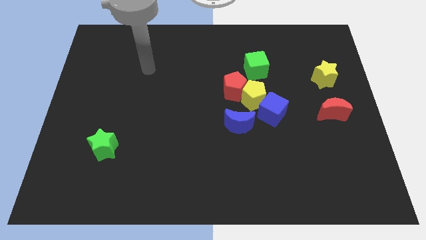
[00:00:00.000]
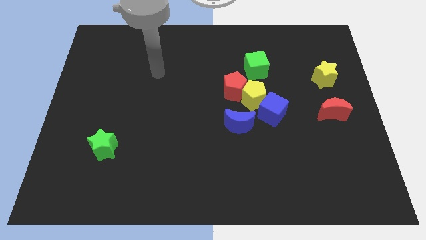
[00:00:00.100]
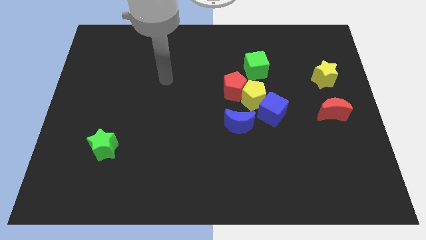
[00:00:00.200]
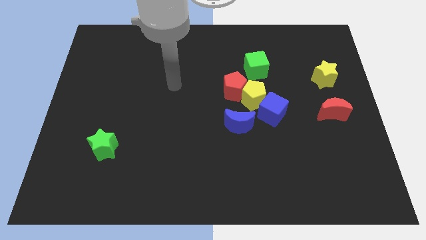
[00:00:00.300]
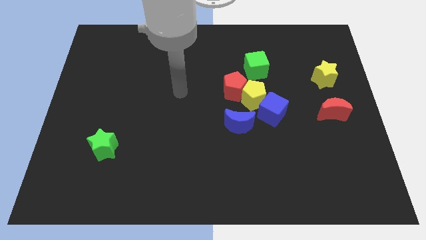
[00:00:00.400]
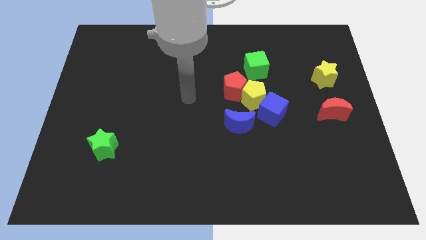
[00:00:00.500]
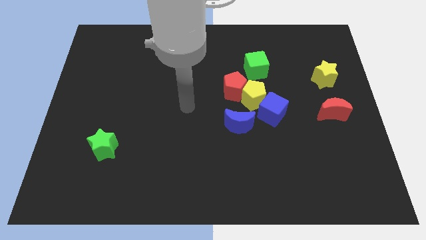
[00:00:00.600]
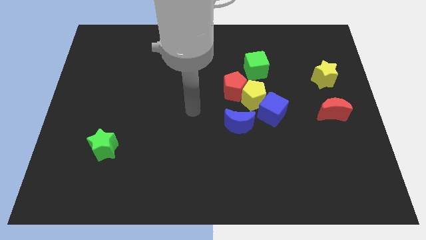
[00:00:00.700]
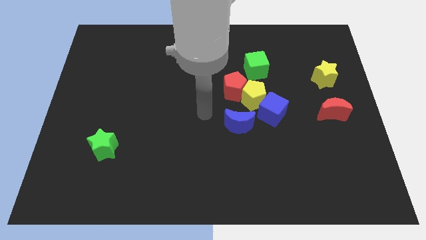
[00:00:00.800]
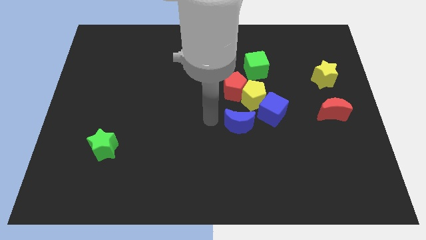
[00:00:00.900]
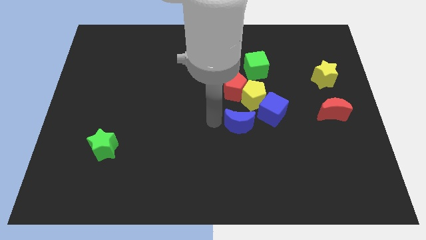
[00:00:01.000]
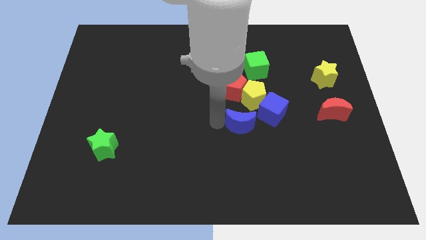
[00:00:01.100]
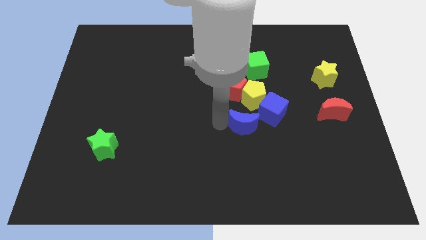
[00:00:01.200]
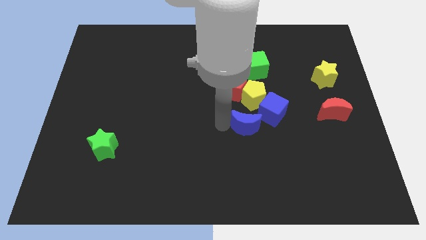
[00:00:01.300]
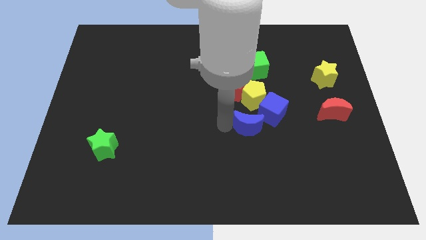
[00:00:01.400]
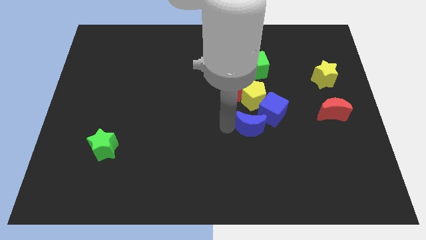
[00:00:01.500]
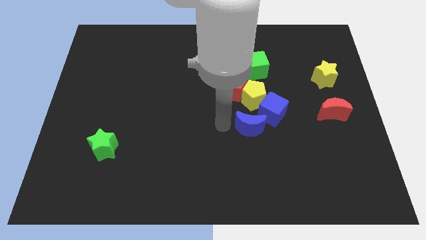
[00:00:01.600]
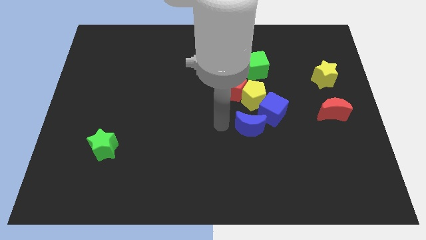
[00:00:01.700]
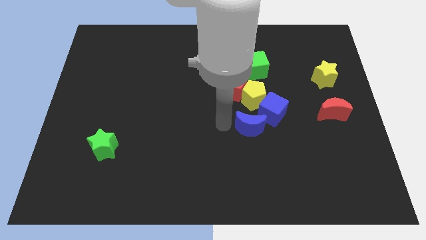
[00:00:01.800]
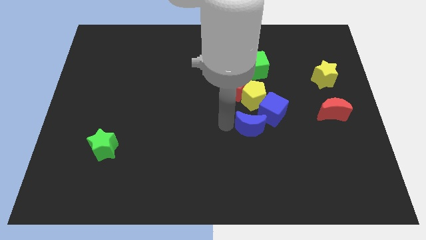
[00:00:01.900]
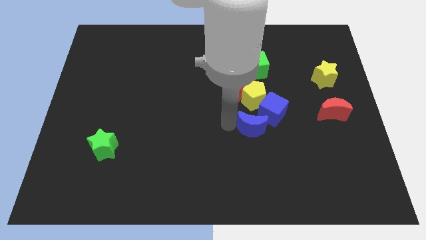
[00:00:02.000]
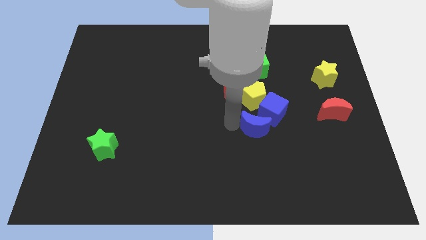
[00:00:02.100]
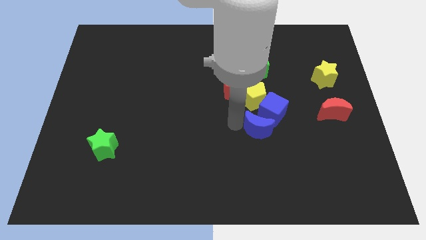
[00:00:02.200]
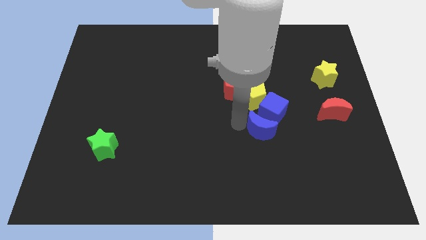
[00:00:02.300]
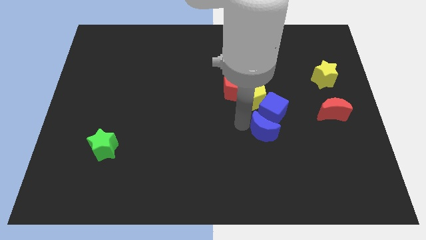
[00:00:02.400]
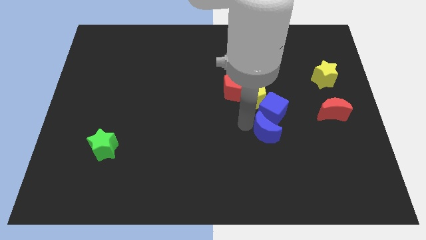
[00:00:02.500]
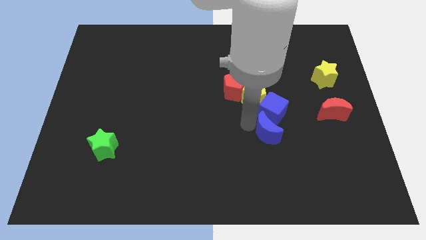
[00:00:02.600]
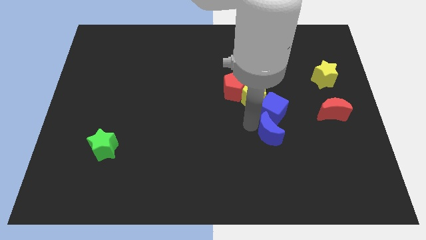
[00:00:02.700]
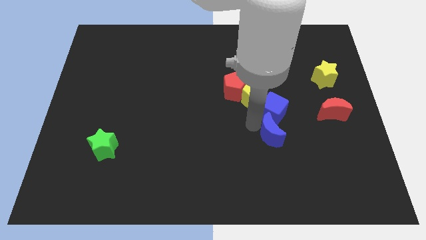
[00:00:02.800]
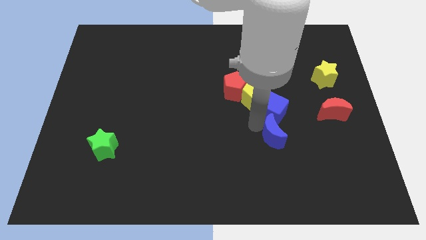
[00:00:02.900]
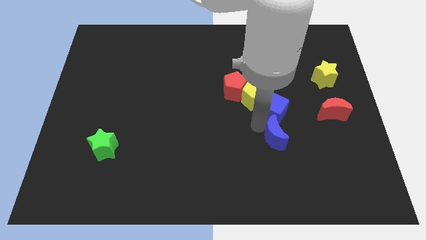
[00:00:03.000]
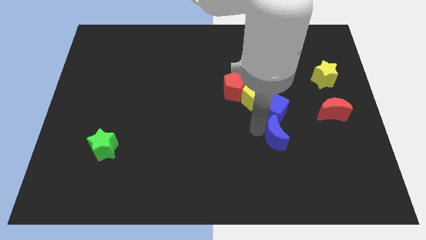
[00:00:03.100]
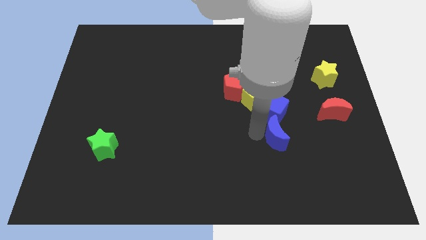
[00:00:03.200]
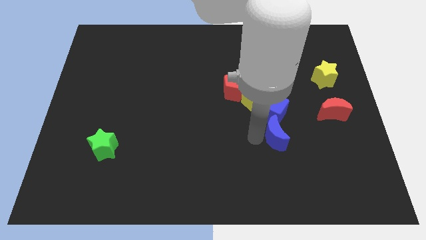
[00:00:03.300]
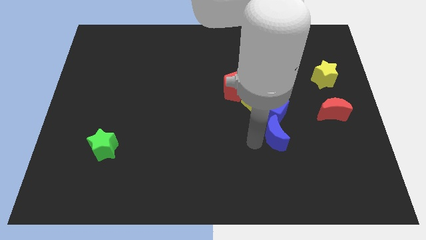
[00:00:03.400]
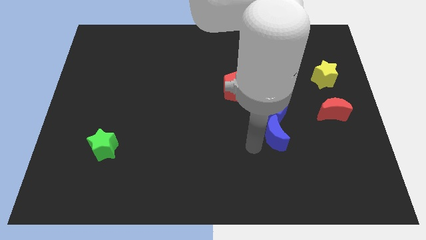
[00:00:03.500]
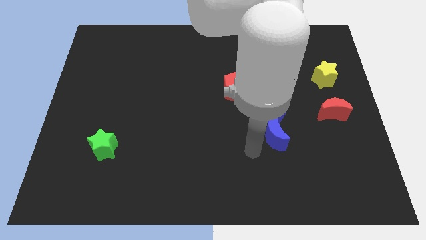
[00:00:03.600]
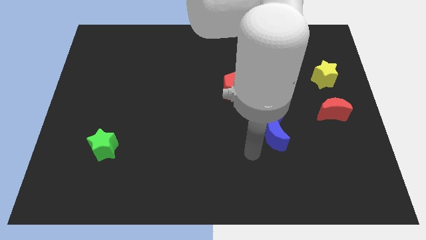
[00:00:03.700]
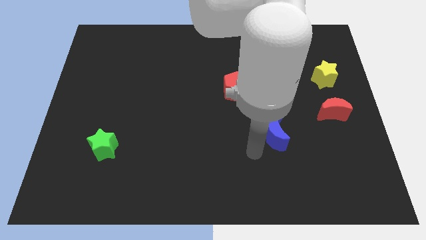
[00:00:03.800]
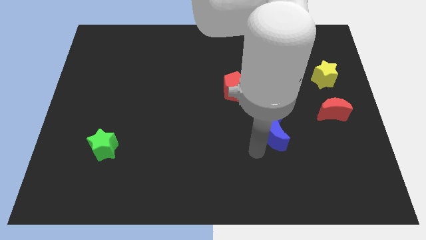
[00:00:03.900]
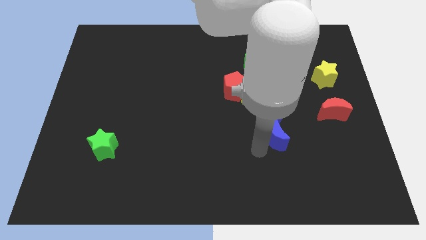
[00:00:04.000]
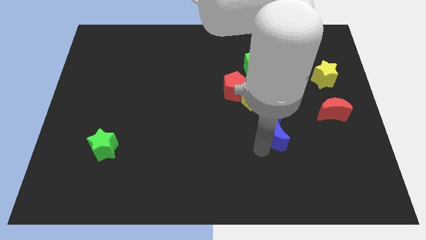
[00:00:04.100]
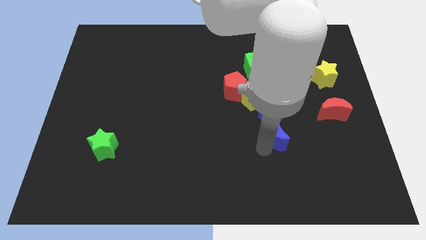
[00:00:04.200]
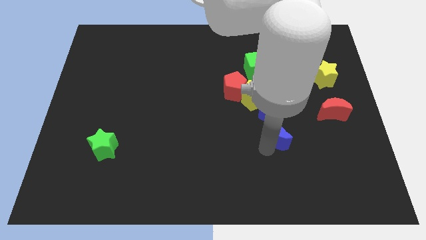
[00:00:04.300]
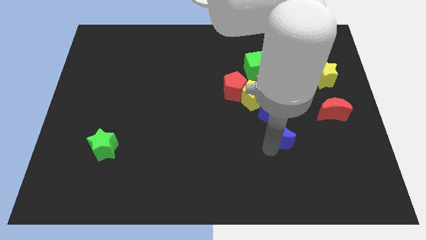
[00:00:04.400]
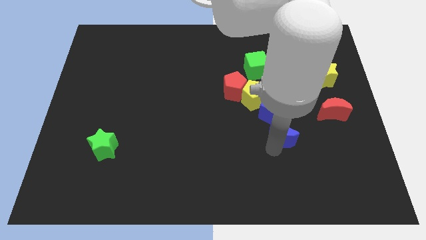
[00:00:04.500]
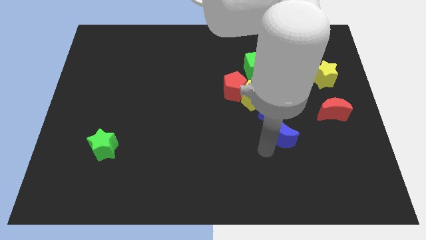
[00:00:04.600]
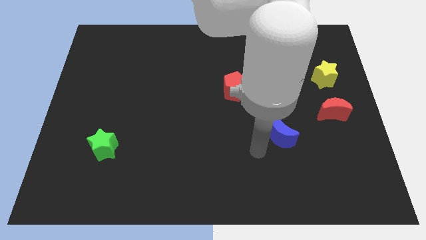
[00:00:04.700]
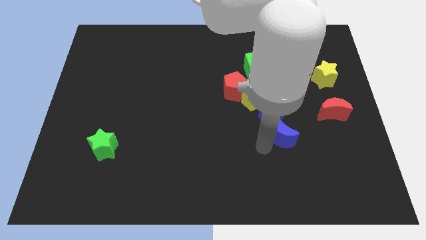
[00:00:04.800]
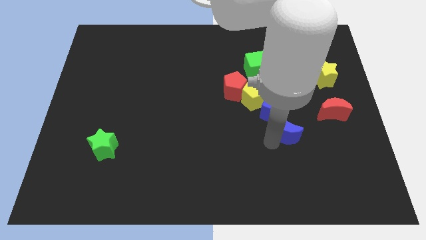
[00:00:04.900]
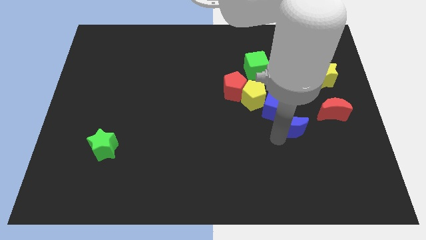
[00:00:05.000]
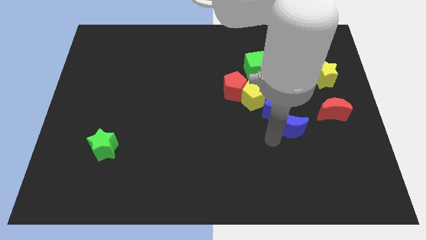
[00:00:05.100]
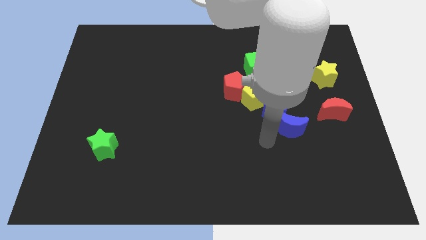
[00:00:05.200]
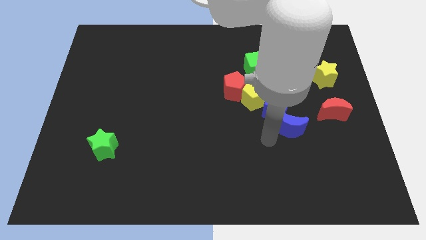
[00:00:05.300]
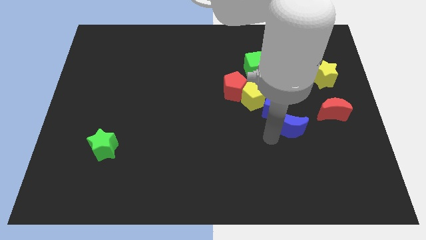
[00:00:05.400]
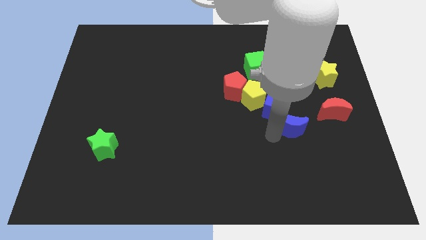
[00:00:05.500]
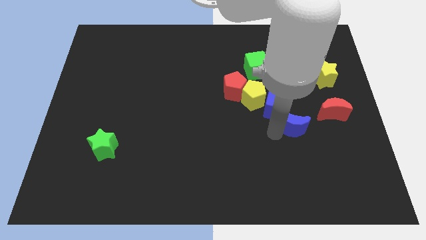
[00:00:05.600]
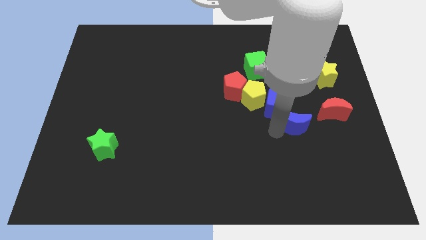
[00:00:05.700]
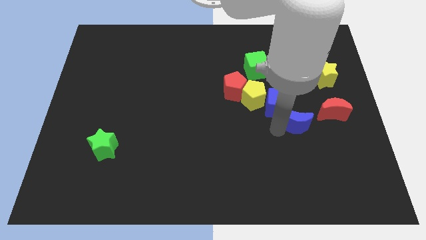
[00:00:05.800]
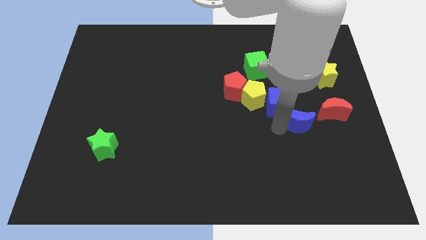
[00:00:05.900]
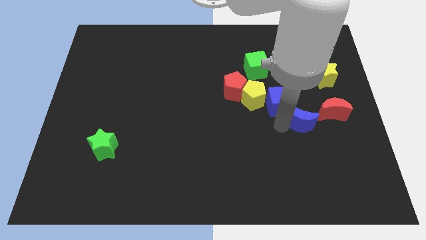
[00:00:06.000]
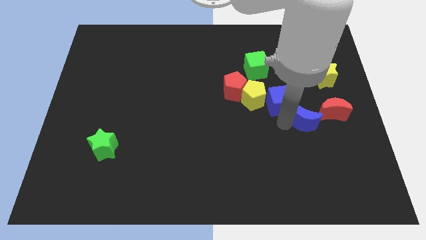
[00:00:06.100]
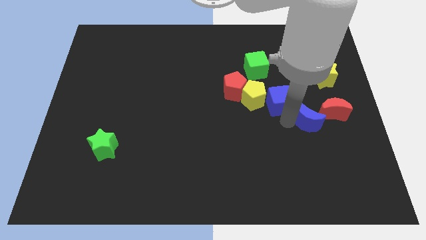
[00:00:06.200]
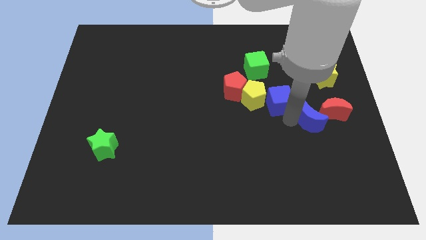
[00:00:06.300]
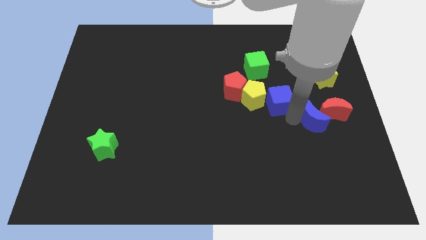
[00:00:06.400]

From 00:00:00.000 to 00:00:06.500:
move the blue moon to the red moon
